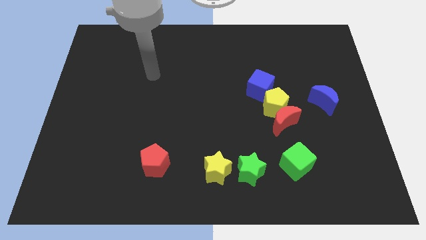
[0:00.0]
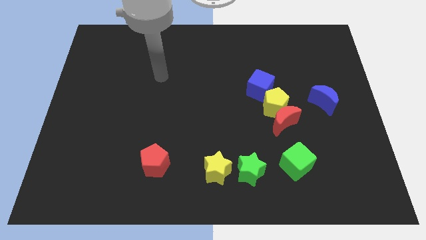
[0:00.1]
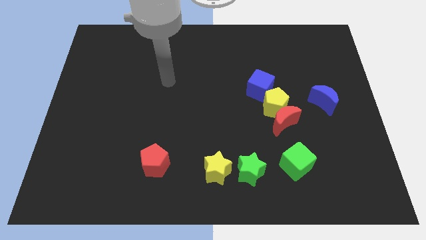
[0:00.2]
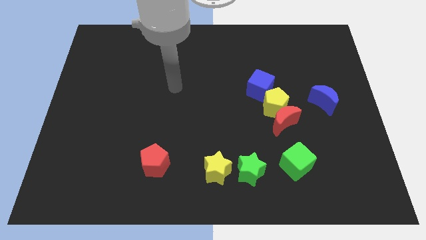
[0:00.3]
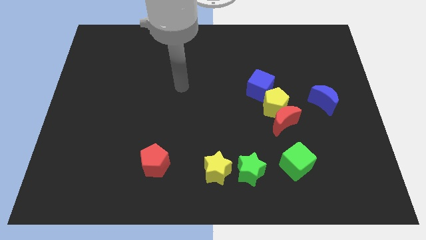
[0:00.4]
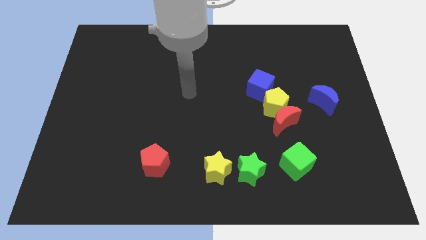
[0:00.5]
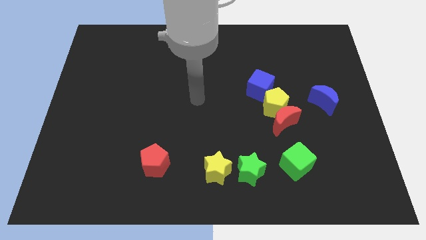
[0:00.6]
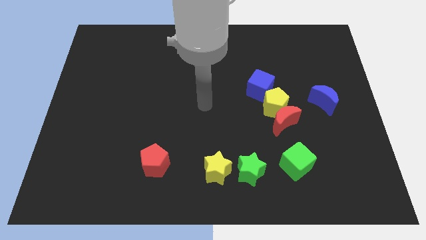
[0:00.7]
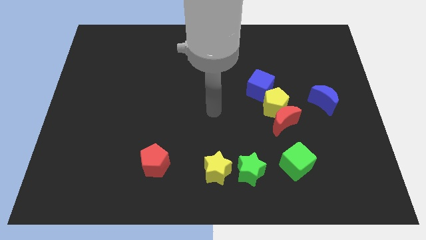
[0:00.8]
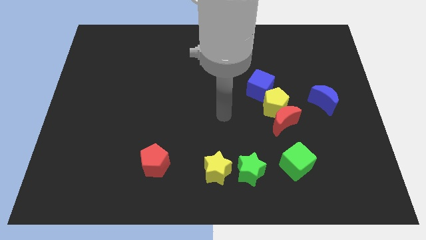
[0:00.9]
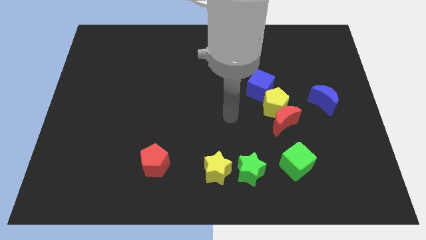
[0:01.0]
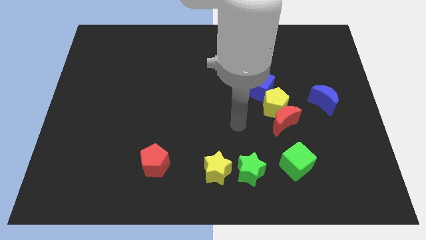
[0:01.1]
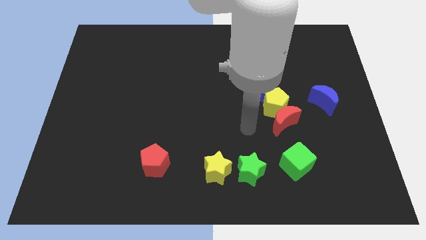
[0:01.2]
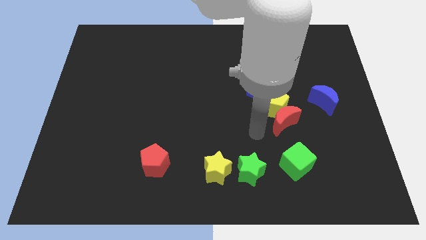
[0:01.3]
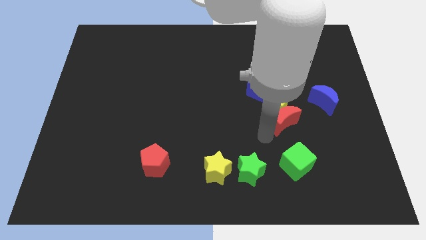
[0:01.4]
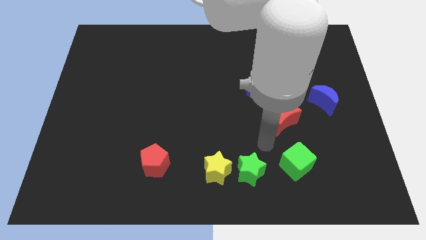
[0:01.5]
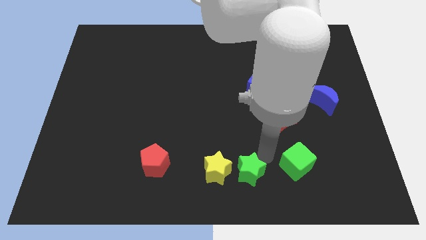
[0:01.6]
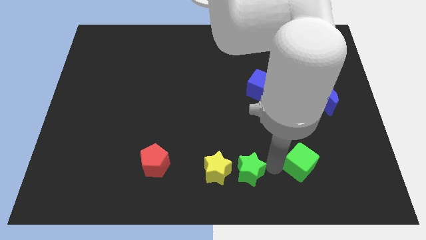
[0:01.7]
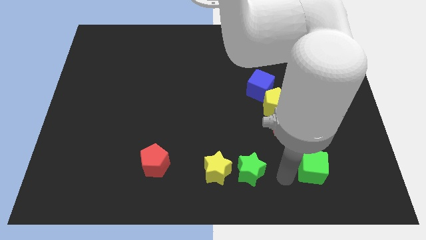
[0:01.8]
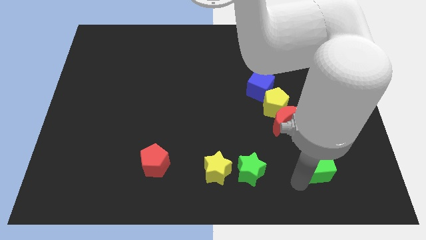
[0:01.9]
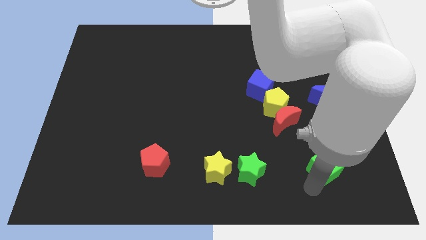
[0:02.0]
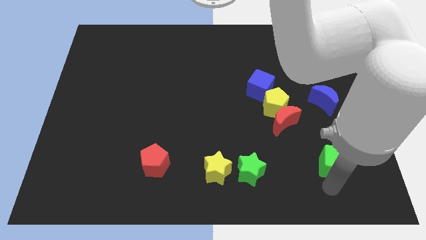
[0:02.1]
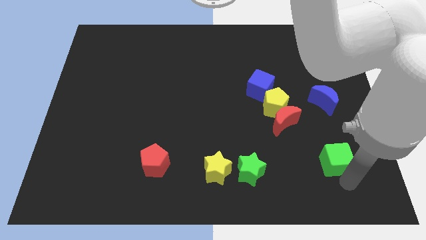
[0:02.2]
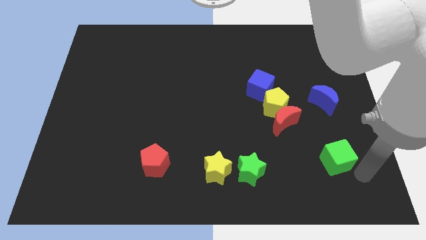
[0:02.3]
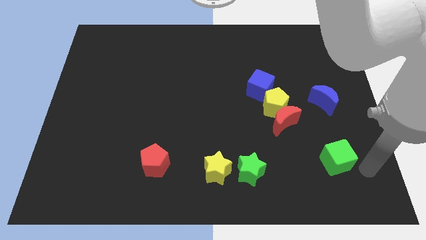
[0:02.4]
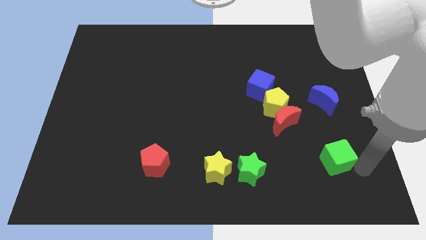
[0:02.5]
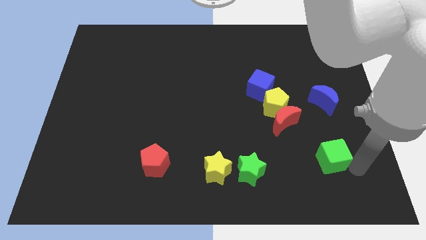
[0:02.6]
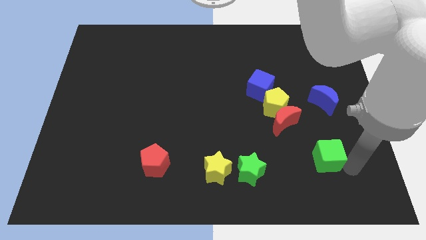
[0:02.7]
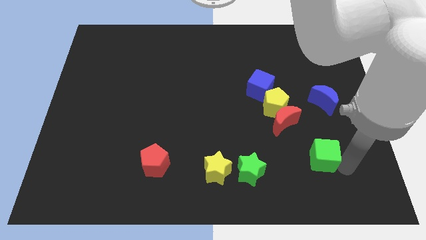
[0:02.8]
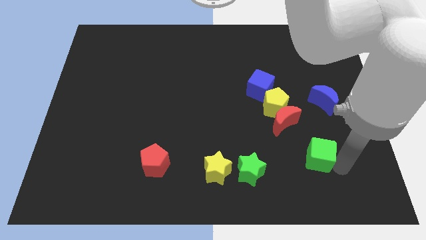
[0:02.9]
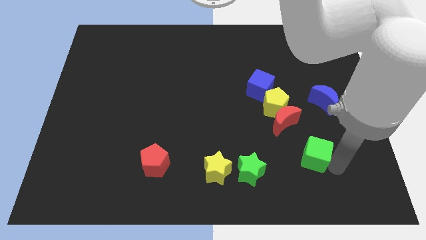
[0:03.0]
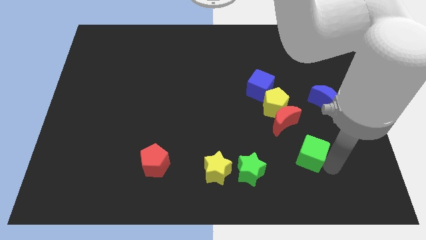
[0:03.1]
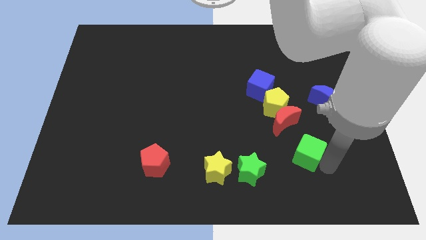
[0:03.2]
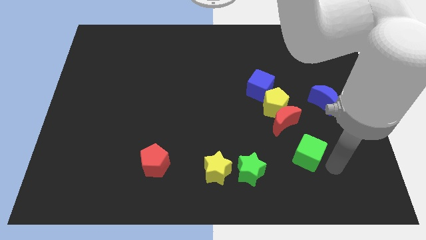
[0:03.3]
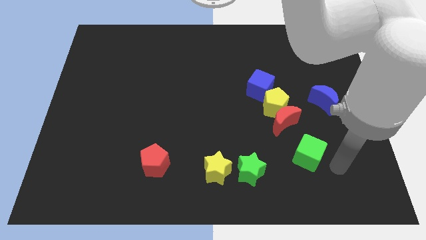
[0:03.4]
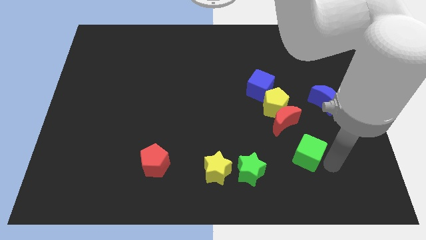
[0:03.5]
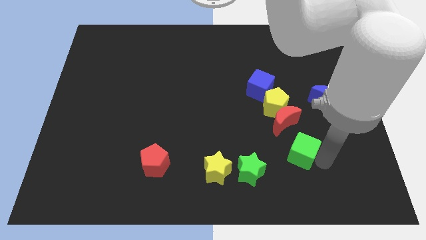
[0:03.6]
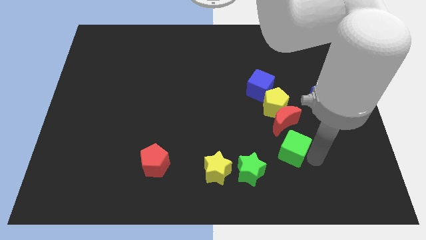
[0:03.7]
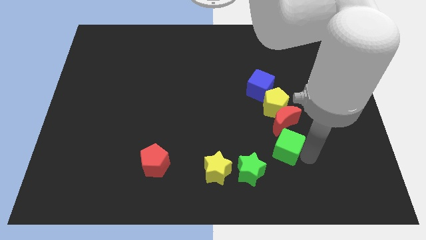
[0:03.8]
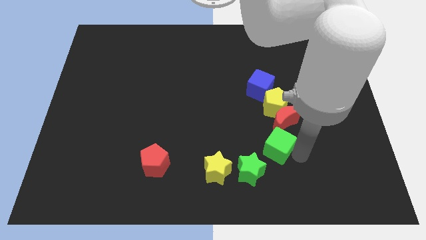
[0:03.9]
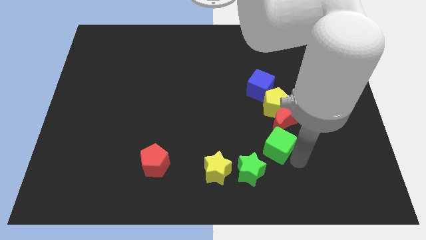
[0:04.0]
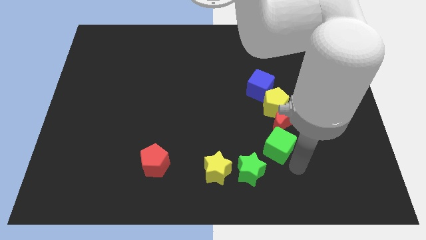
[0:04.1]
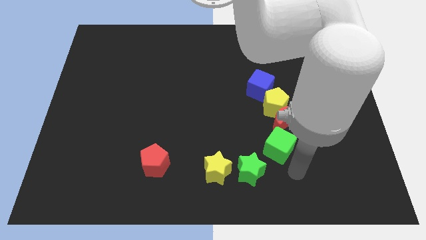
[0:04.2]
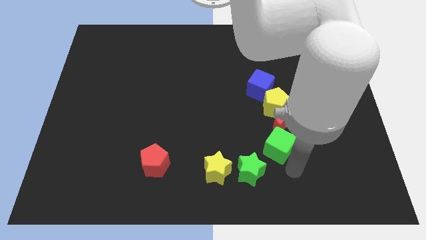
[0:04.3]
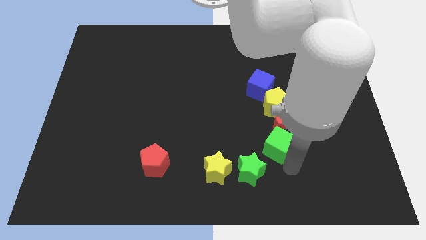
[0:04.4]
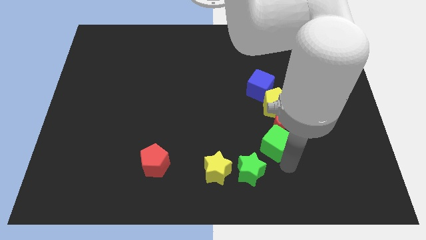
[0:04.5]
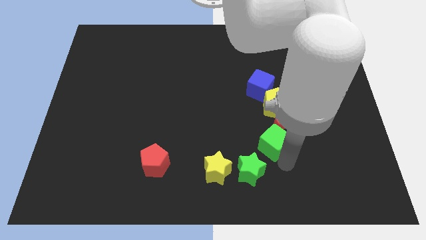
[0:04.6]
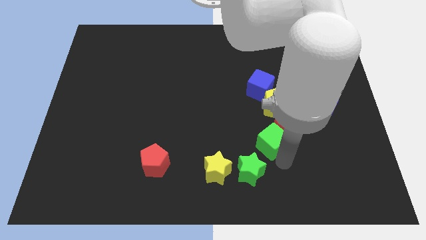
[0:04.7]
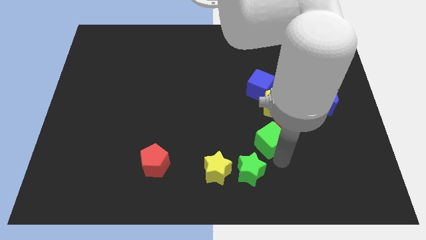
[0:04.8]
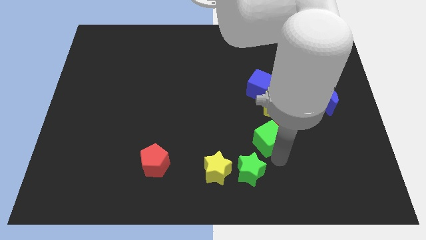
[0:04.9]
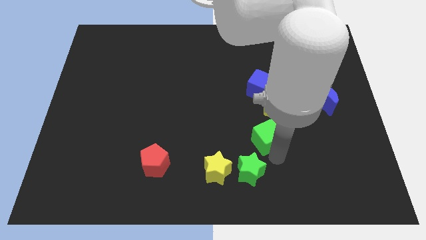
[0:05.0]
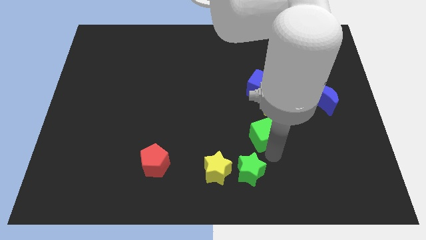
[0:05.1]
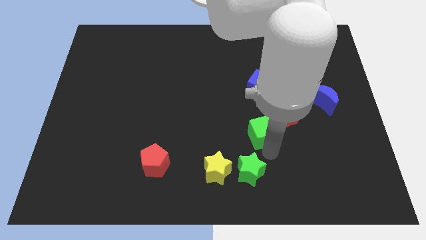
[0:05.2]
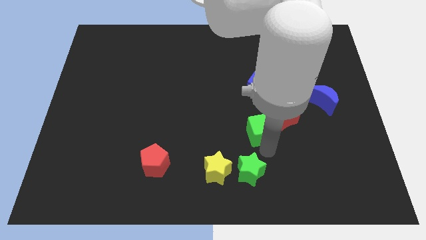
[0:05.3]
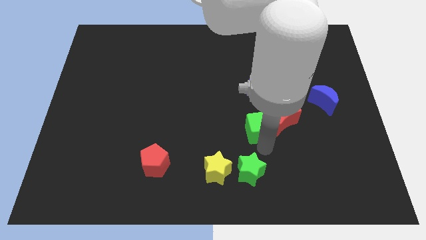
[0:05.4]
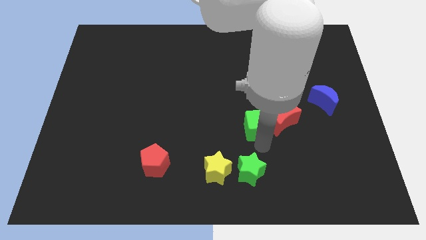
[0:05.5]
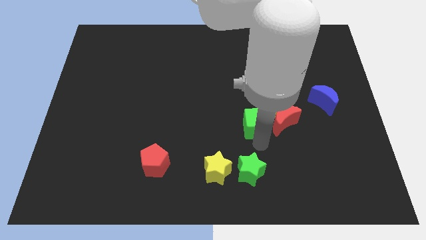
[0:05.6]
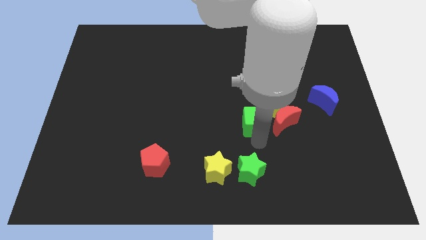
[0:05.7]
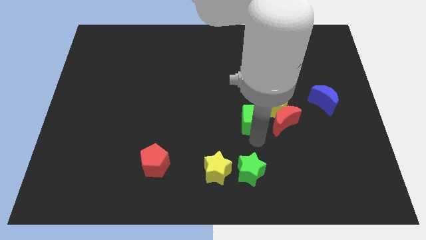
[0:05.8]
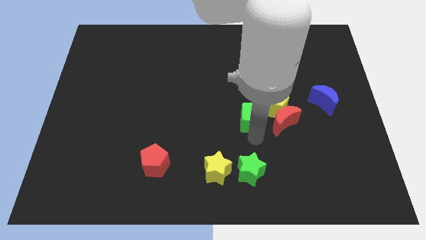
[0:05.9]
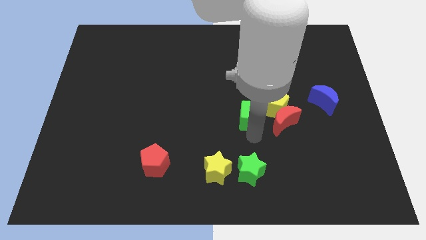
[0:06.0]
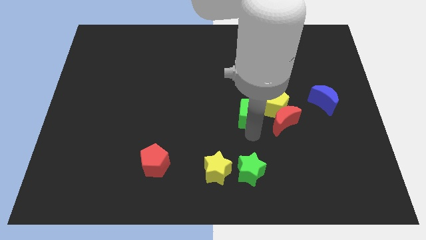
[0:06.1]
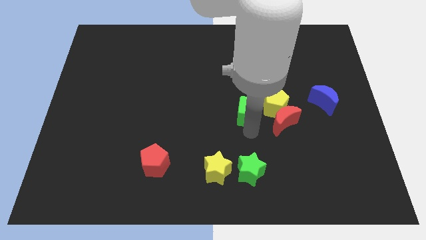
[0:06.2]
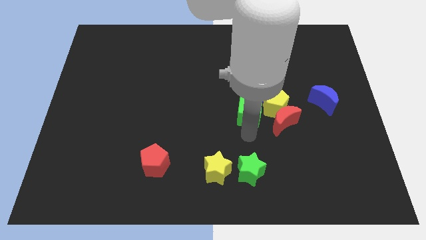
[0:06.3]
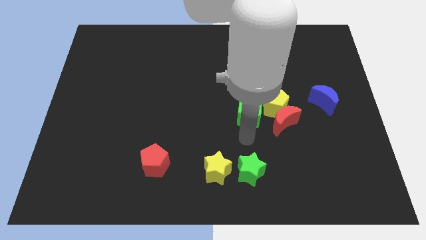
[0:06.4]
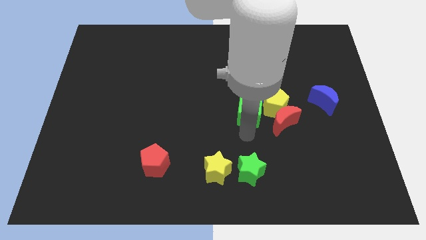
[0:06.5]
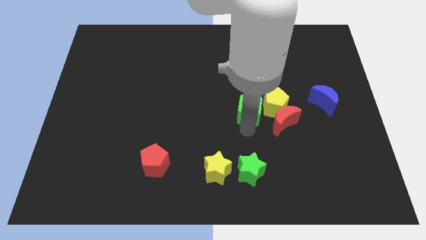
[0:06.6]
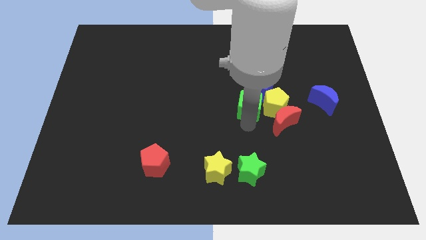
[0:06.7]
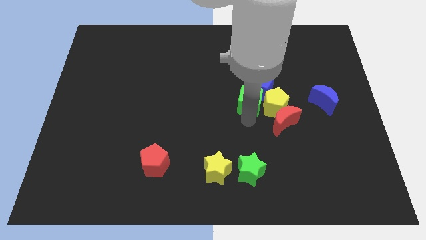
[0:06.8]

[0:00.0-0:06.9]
push the green cube next to the blue cube
